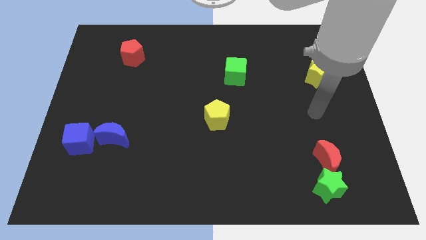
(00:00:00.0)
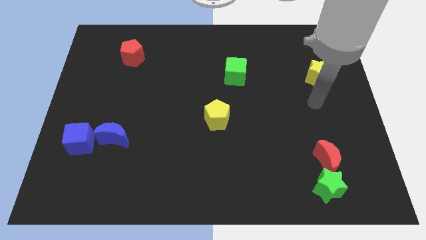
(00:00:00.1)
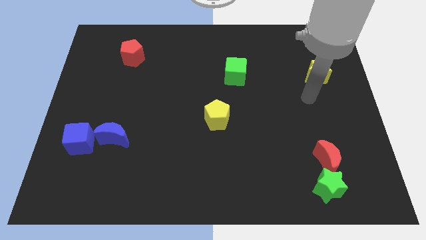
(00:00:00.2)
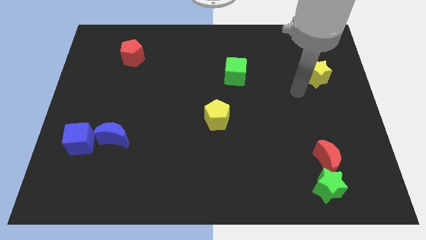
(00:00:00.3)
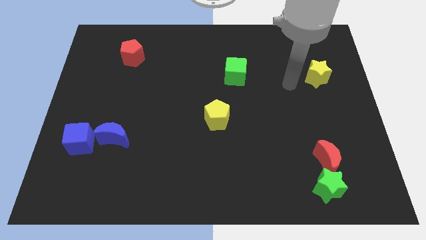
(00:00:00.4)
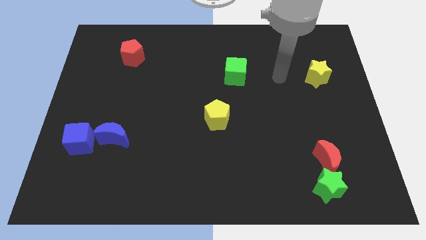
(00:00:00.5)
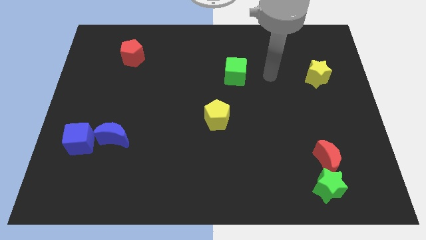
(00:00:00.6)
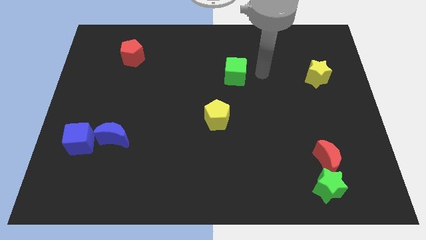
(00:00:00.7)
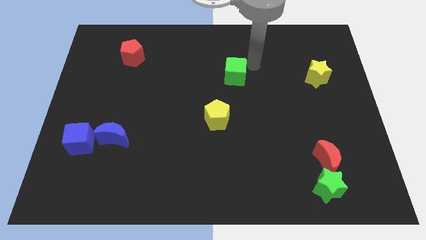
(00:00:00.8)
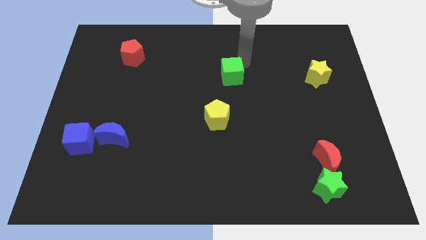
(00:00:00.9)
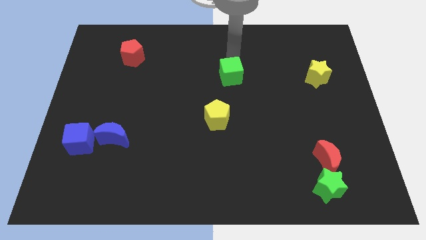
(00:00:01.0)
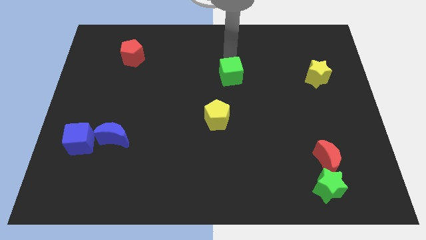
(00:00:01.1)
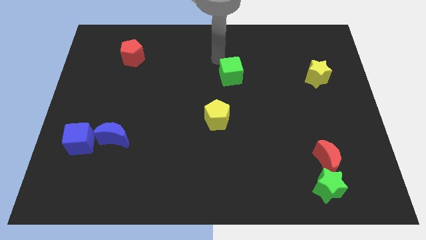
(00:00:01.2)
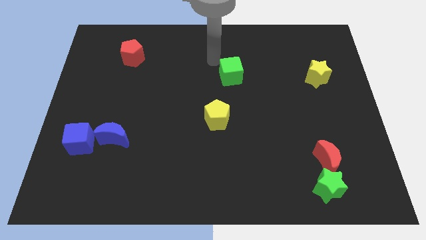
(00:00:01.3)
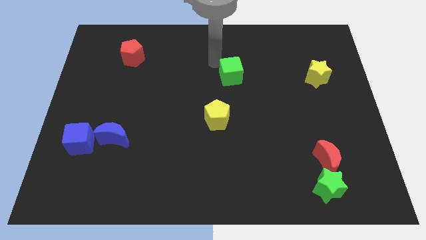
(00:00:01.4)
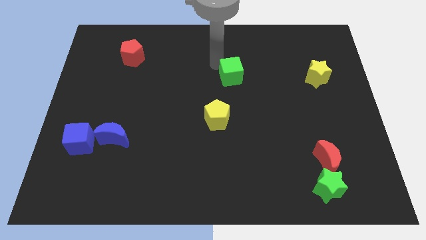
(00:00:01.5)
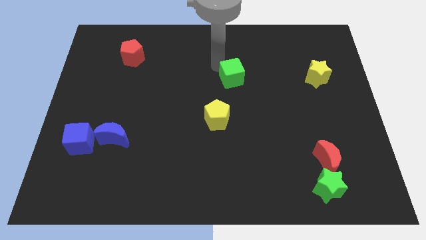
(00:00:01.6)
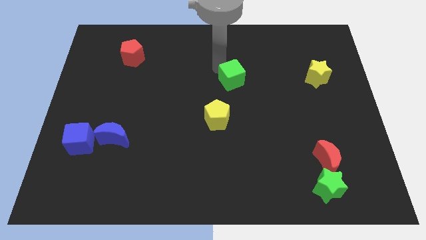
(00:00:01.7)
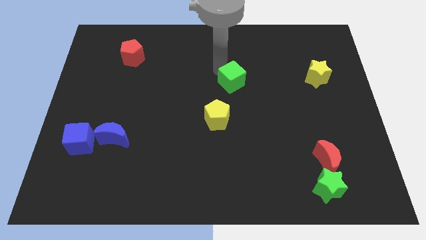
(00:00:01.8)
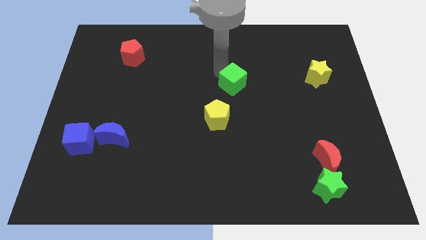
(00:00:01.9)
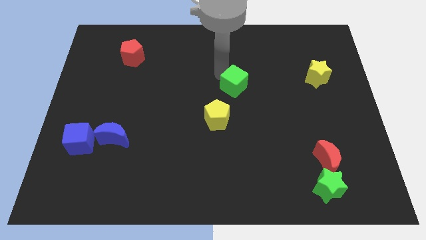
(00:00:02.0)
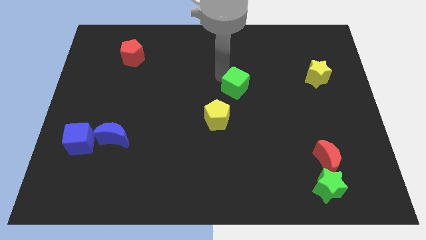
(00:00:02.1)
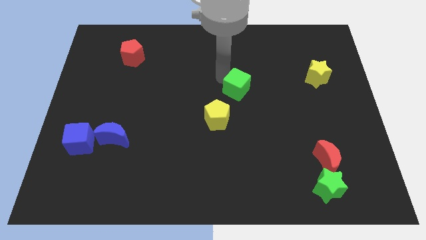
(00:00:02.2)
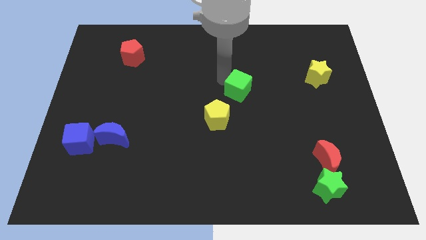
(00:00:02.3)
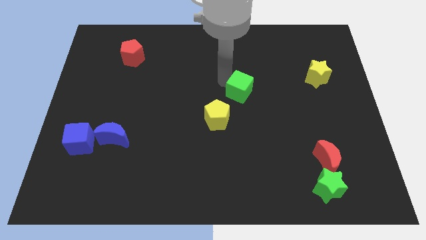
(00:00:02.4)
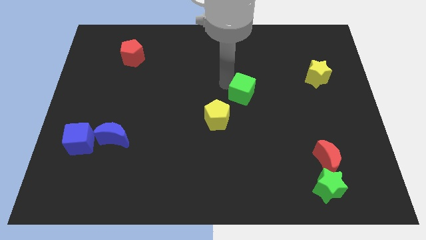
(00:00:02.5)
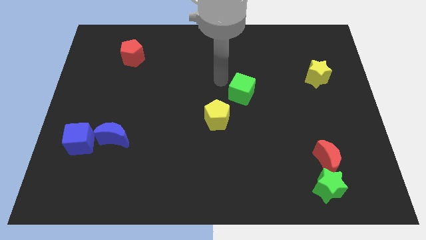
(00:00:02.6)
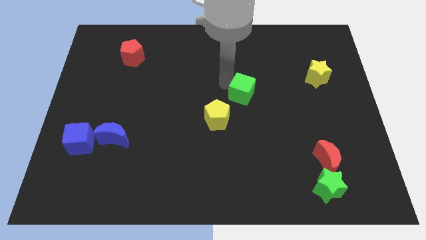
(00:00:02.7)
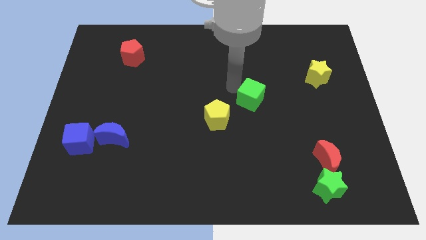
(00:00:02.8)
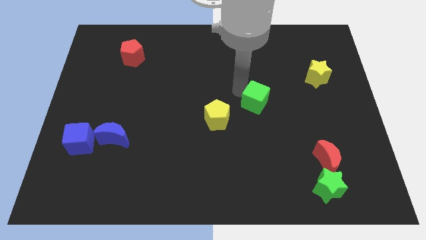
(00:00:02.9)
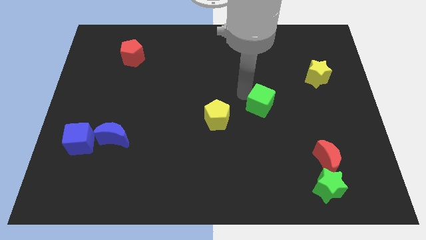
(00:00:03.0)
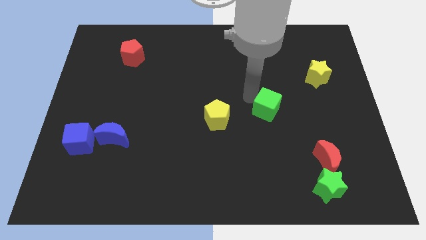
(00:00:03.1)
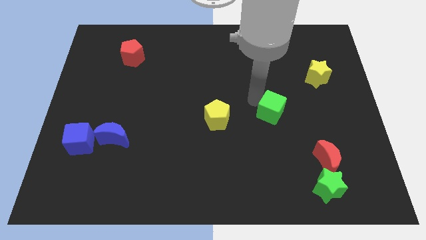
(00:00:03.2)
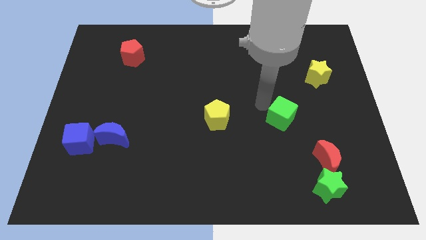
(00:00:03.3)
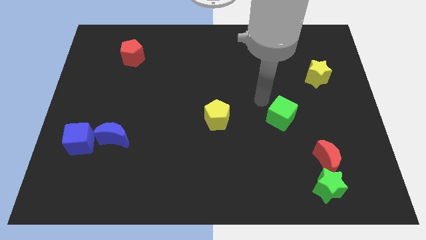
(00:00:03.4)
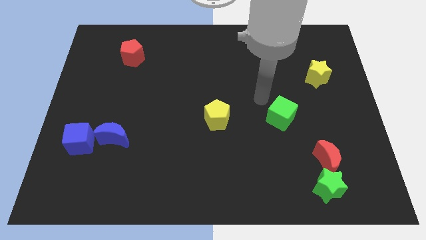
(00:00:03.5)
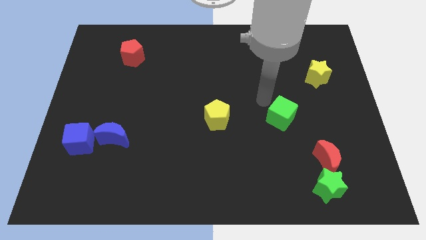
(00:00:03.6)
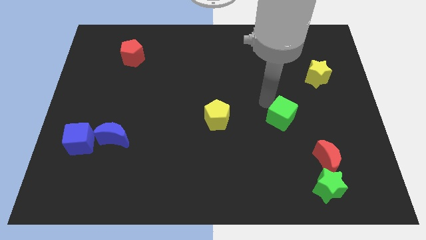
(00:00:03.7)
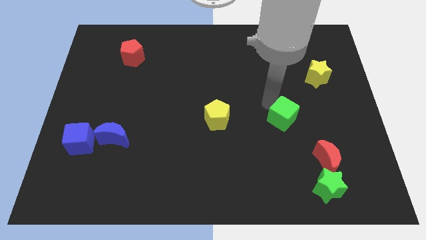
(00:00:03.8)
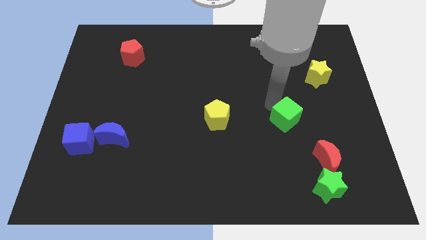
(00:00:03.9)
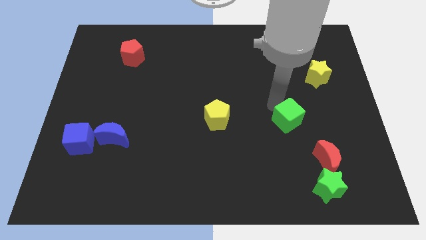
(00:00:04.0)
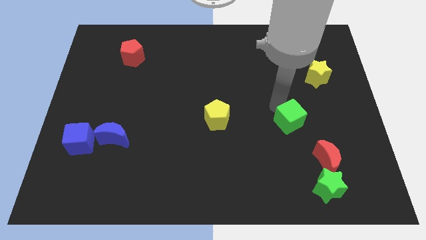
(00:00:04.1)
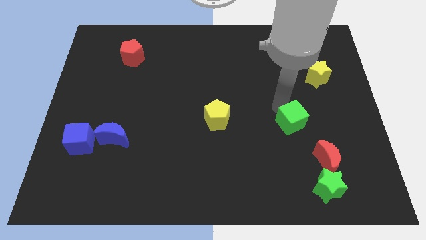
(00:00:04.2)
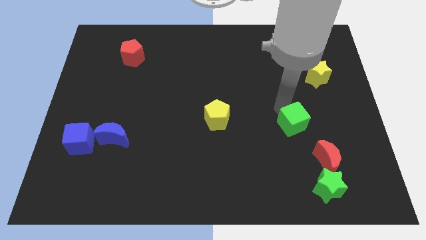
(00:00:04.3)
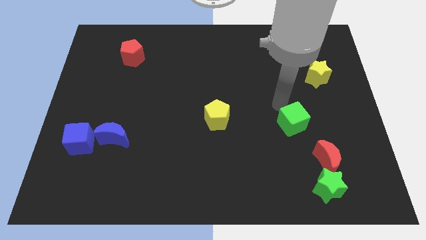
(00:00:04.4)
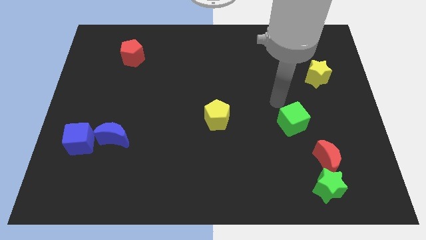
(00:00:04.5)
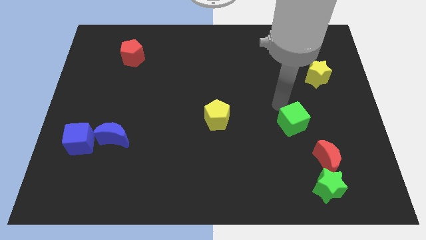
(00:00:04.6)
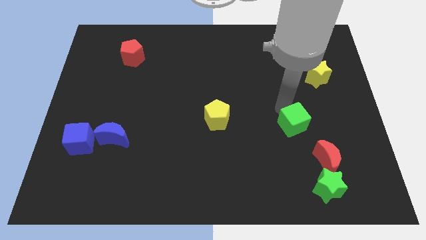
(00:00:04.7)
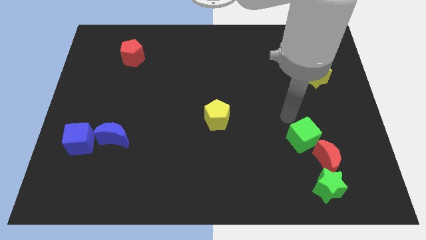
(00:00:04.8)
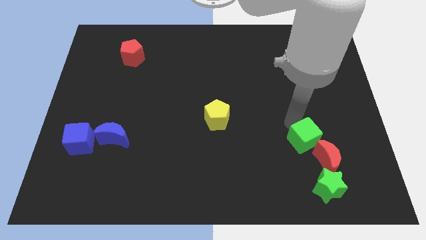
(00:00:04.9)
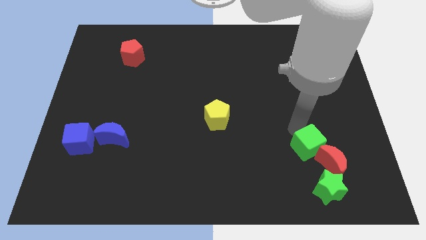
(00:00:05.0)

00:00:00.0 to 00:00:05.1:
push the green cube to the red moon

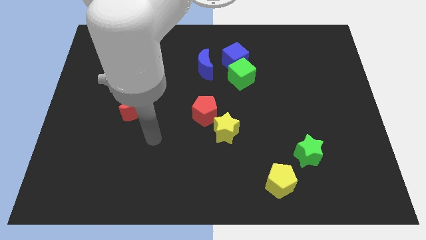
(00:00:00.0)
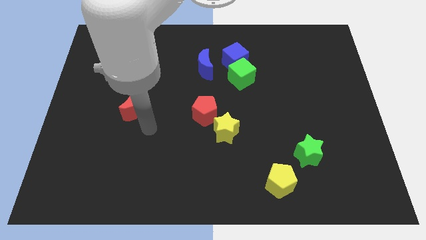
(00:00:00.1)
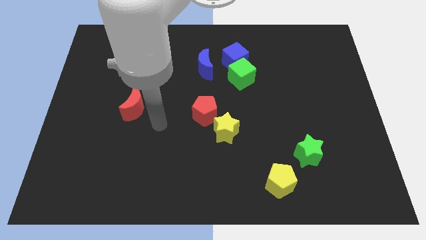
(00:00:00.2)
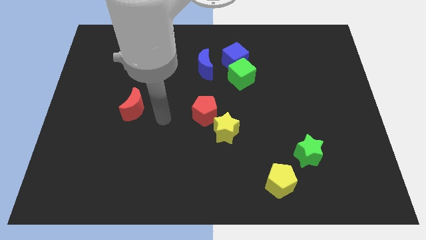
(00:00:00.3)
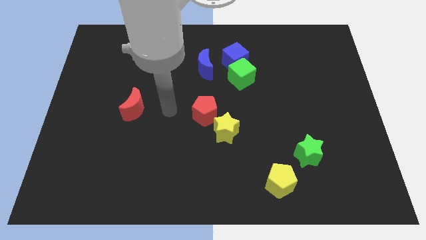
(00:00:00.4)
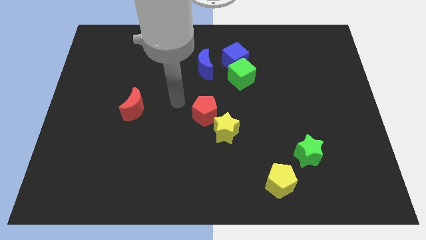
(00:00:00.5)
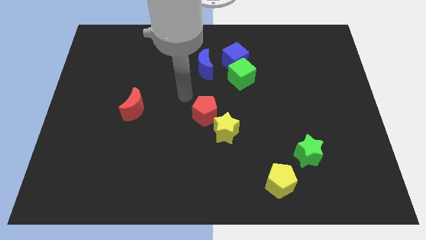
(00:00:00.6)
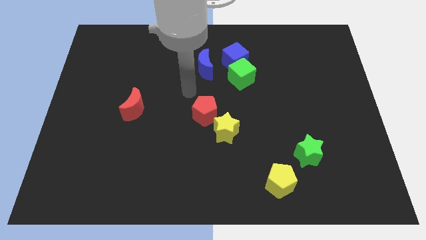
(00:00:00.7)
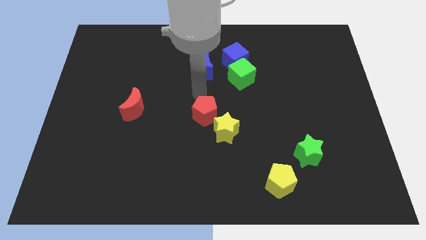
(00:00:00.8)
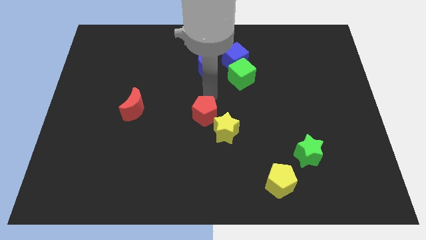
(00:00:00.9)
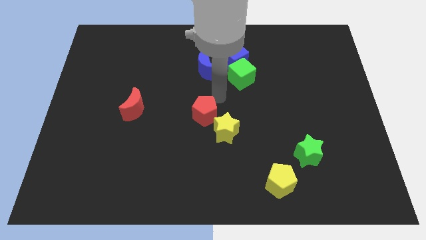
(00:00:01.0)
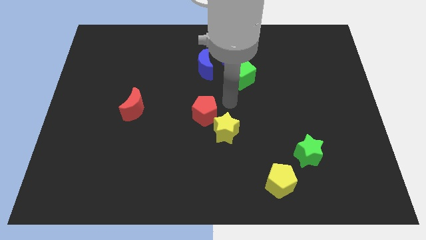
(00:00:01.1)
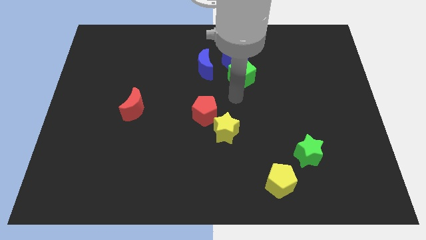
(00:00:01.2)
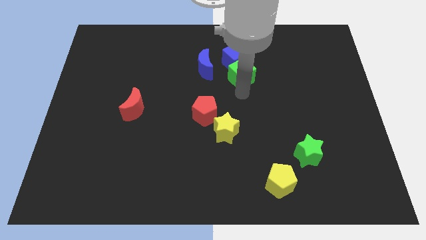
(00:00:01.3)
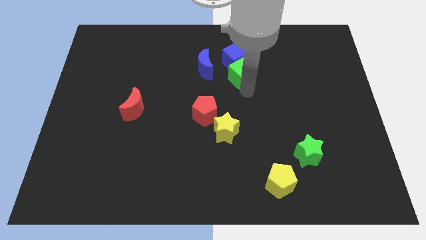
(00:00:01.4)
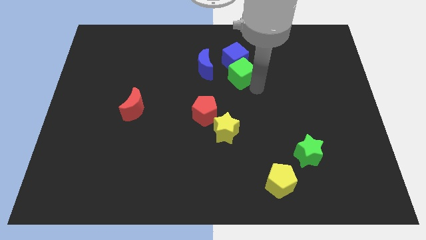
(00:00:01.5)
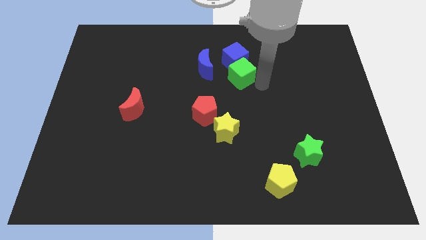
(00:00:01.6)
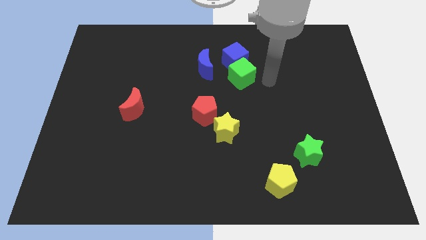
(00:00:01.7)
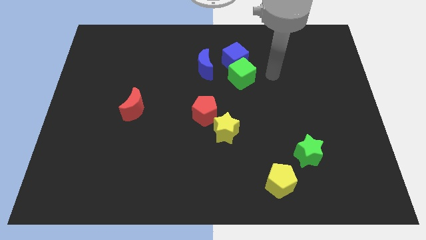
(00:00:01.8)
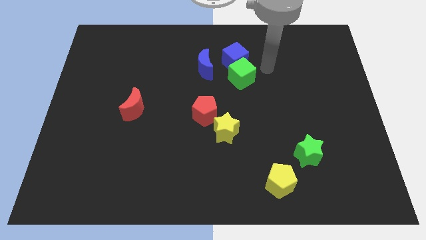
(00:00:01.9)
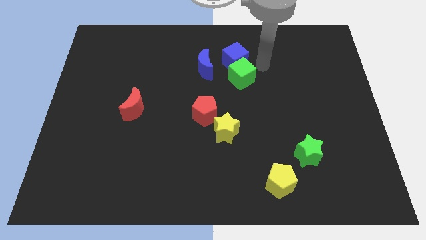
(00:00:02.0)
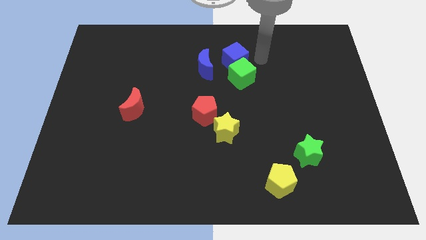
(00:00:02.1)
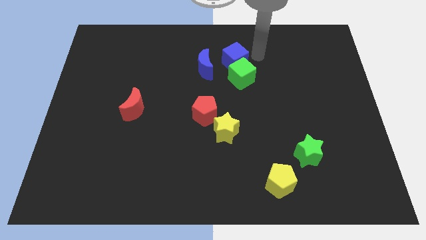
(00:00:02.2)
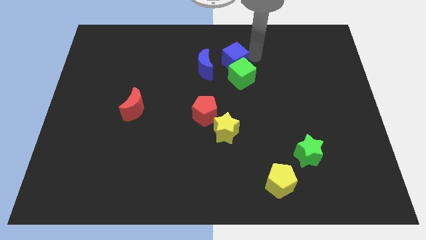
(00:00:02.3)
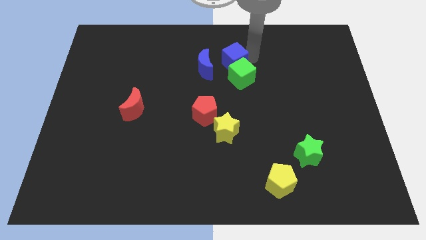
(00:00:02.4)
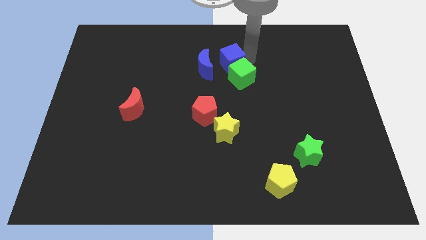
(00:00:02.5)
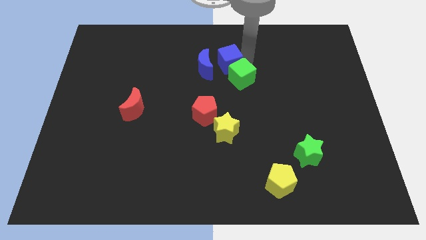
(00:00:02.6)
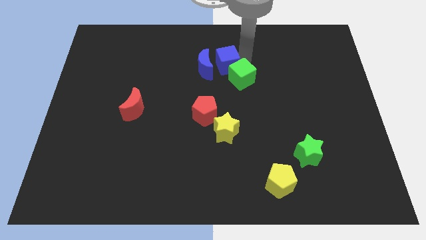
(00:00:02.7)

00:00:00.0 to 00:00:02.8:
slide the blue cube towards the blue moon
